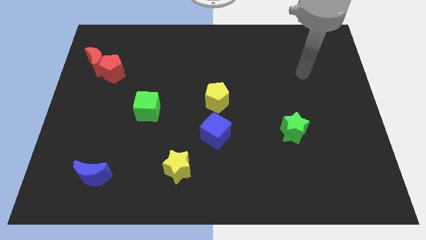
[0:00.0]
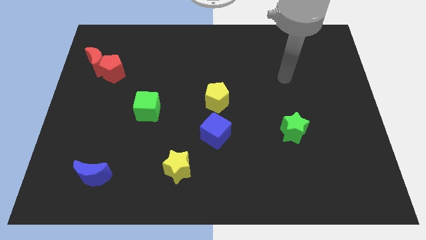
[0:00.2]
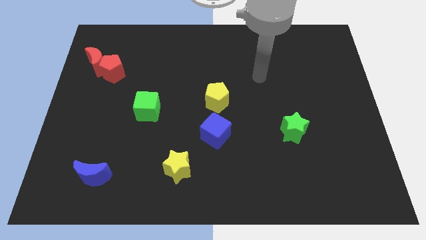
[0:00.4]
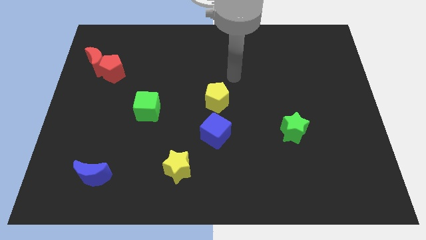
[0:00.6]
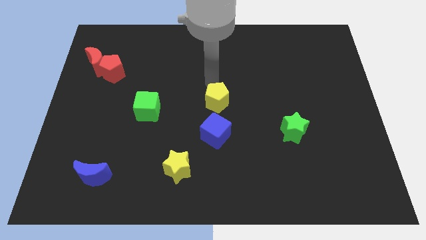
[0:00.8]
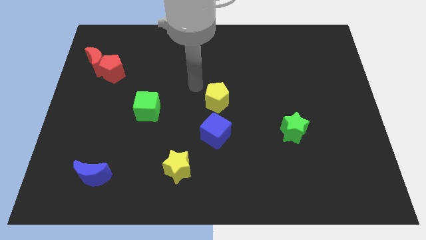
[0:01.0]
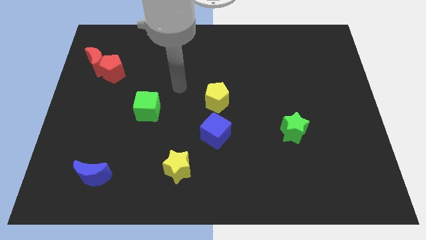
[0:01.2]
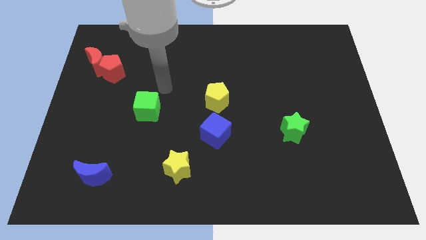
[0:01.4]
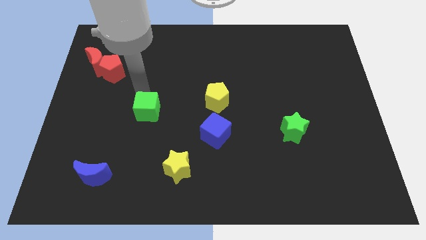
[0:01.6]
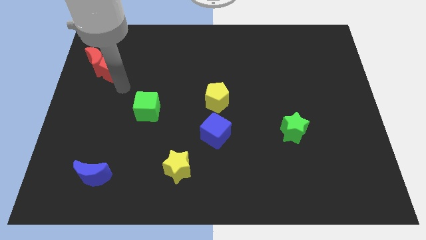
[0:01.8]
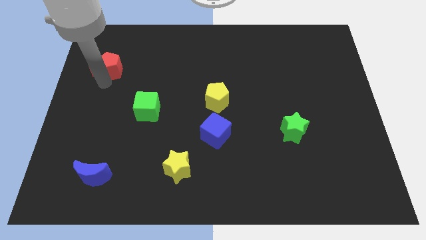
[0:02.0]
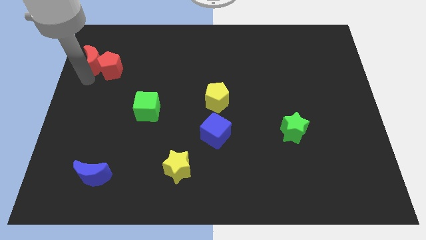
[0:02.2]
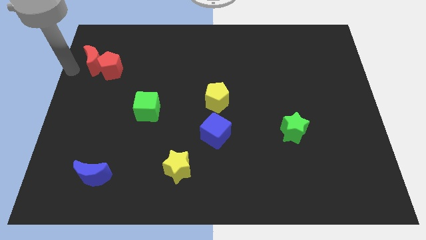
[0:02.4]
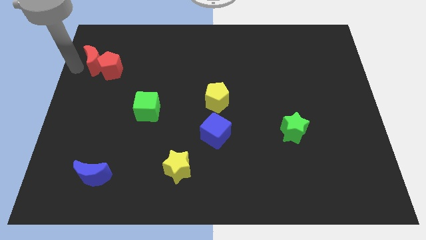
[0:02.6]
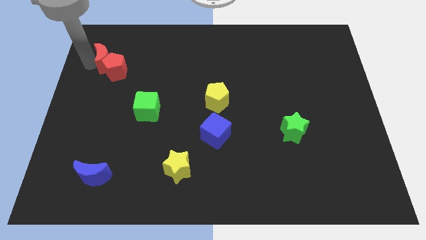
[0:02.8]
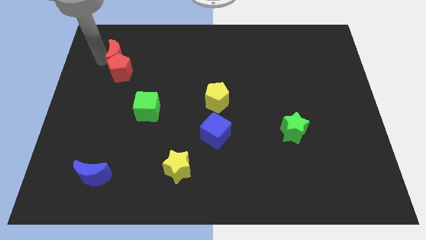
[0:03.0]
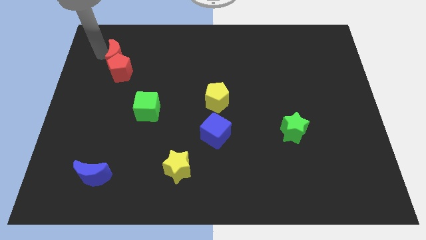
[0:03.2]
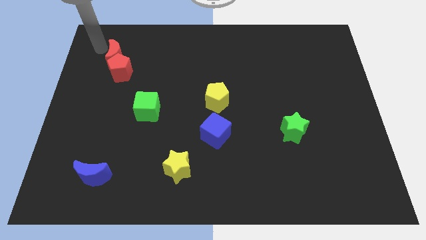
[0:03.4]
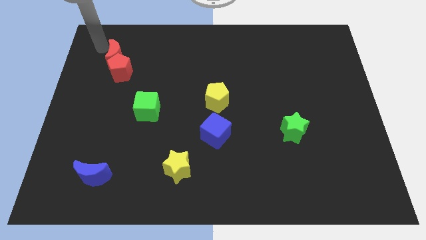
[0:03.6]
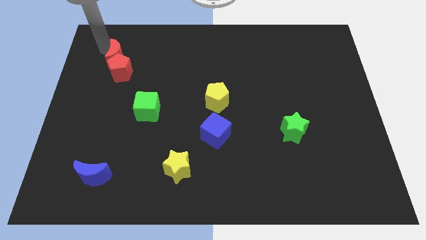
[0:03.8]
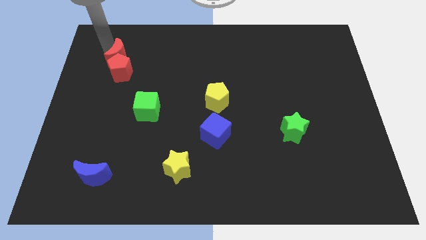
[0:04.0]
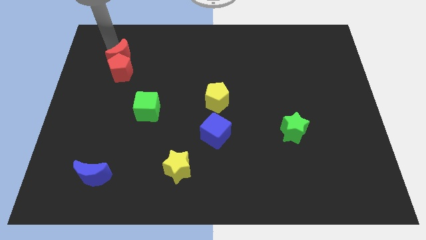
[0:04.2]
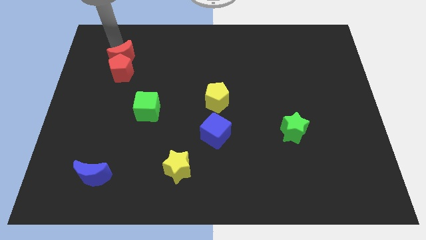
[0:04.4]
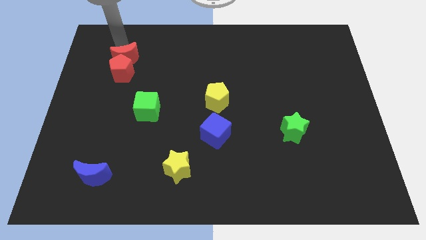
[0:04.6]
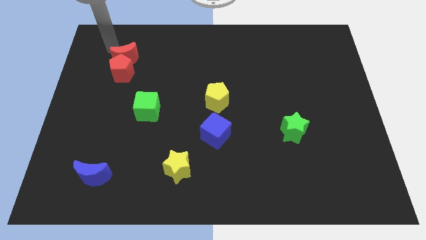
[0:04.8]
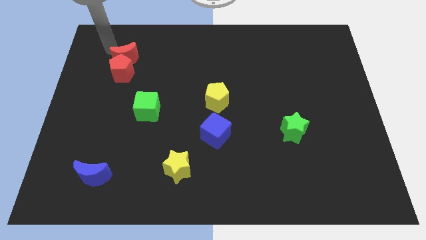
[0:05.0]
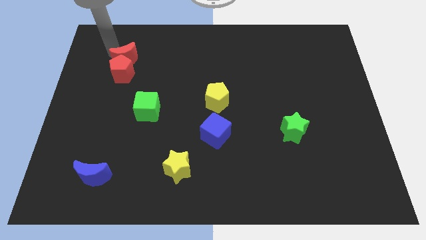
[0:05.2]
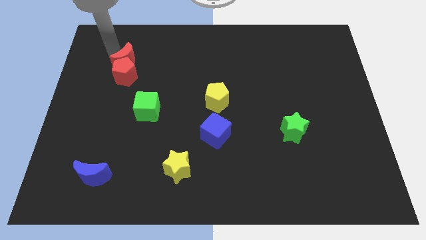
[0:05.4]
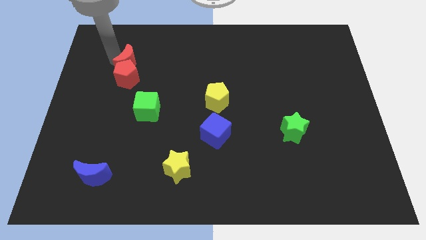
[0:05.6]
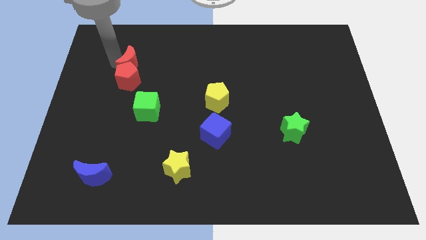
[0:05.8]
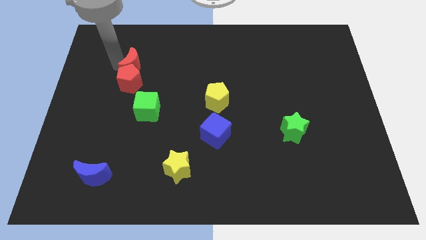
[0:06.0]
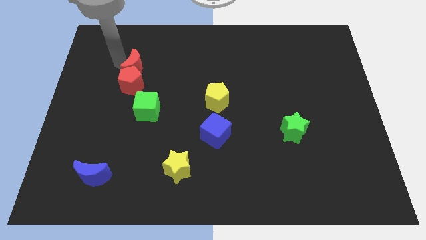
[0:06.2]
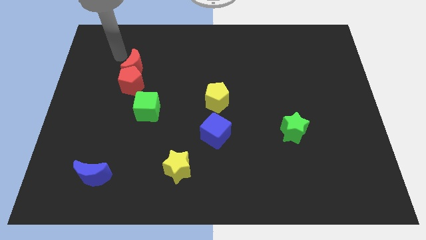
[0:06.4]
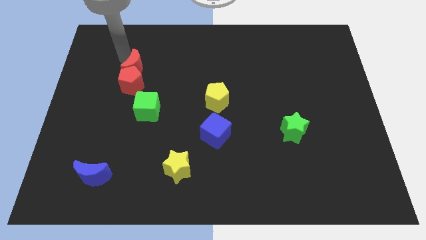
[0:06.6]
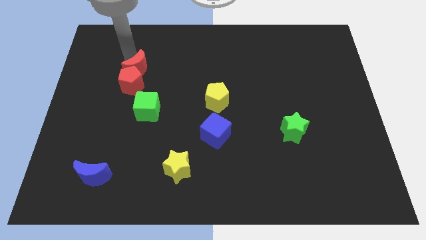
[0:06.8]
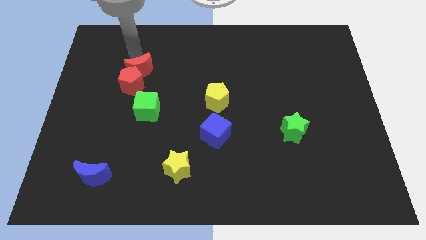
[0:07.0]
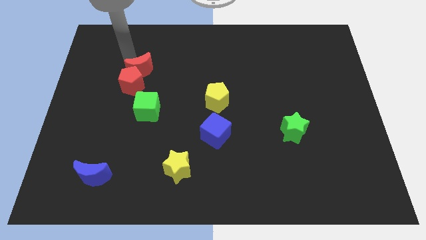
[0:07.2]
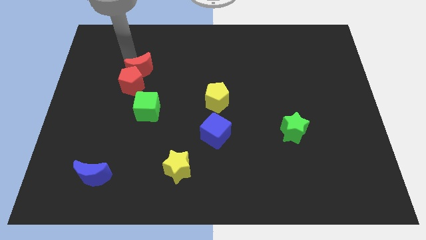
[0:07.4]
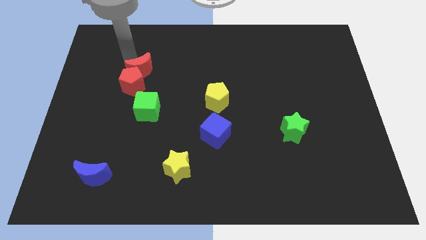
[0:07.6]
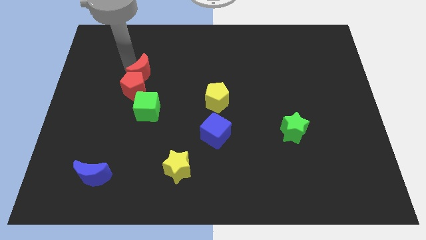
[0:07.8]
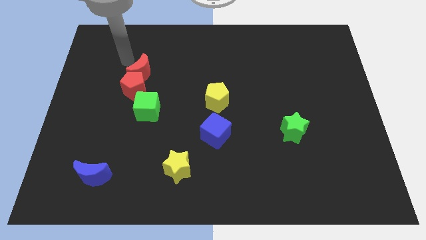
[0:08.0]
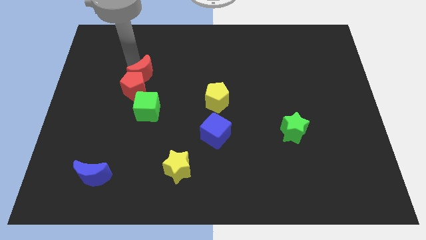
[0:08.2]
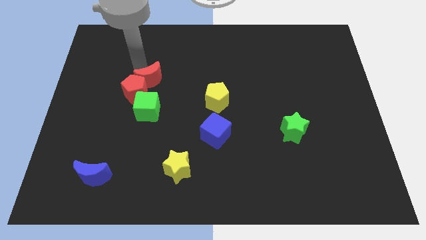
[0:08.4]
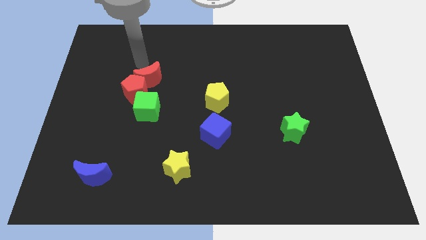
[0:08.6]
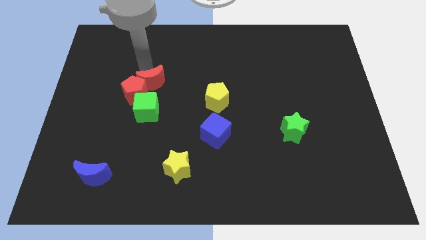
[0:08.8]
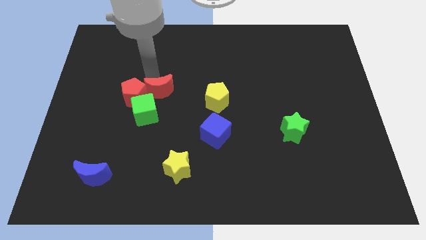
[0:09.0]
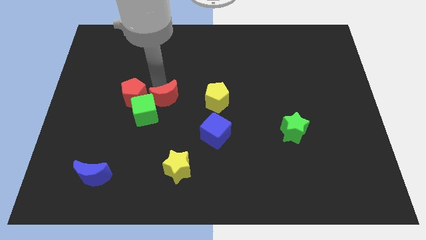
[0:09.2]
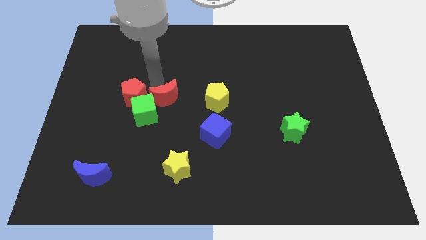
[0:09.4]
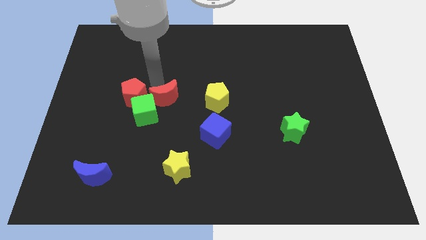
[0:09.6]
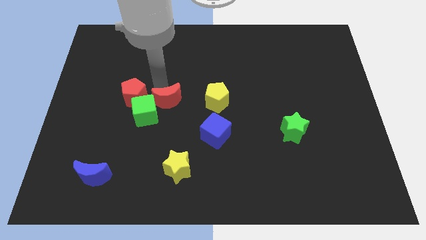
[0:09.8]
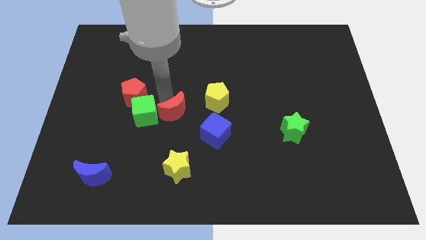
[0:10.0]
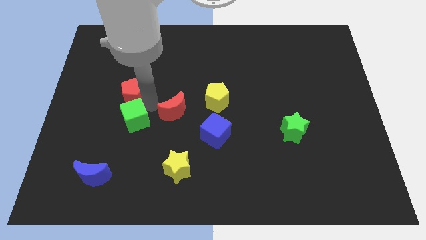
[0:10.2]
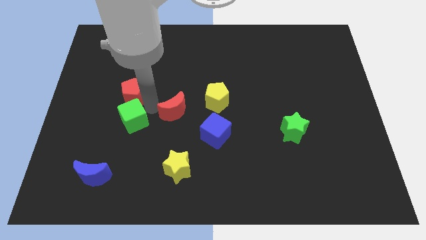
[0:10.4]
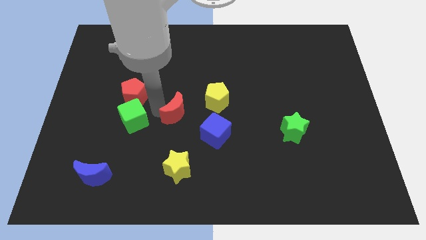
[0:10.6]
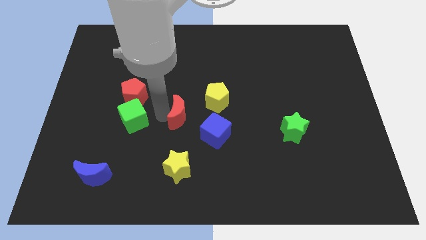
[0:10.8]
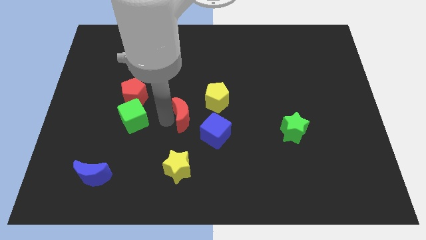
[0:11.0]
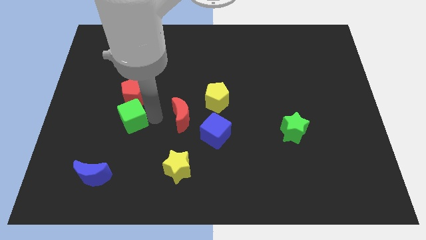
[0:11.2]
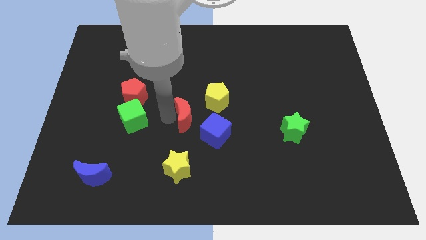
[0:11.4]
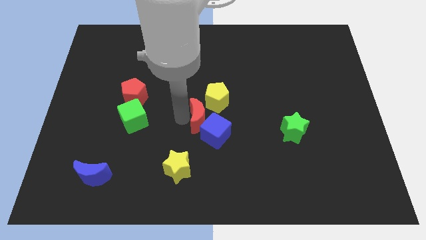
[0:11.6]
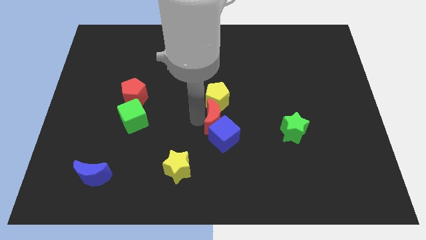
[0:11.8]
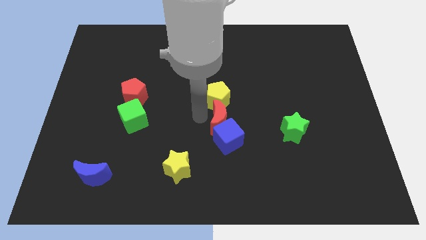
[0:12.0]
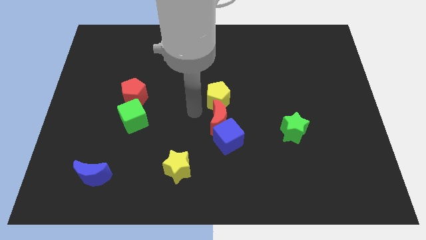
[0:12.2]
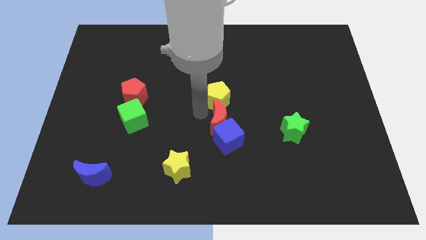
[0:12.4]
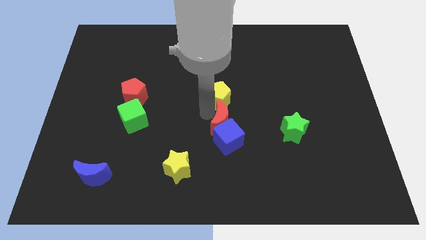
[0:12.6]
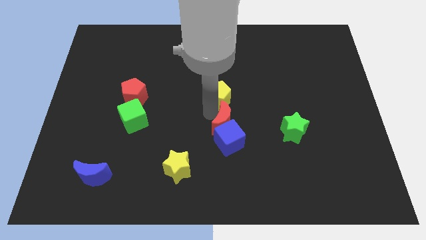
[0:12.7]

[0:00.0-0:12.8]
slide the red moon to the left side of the green star

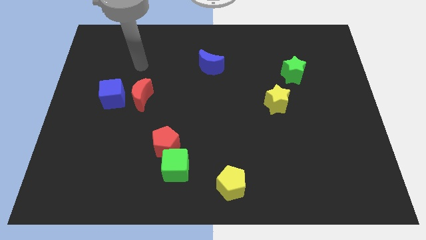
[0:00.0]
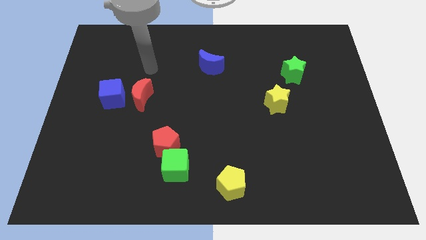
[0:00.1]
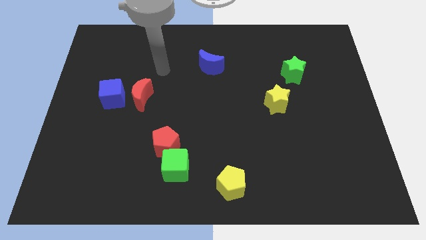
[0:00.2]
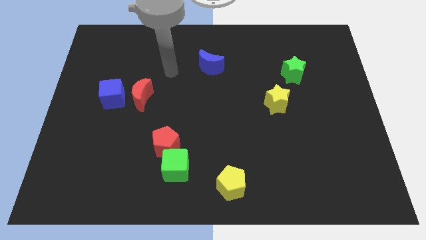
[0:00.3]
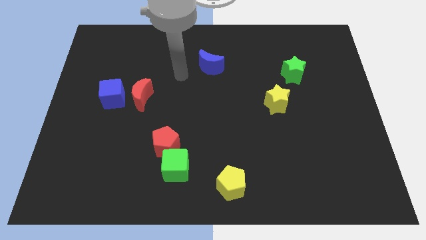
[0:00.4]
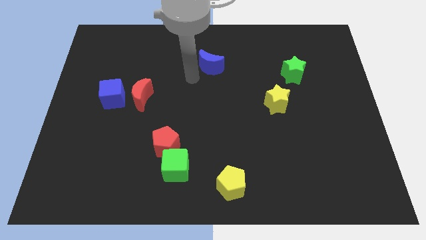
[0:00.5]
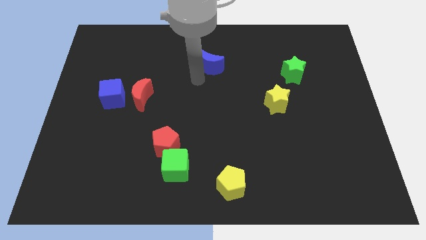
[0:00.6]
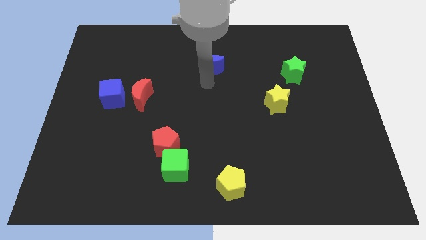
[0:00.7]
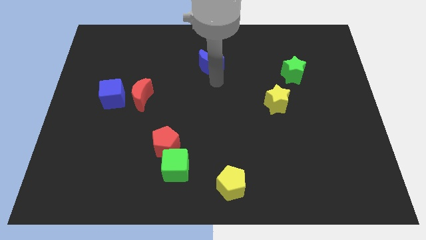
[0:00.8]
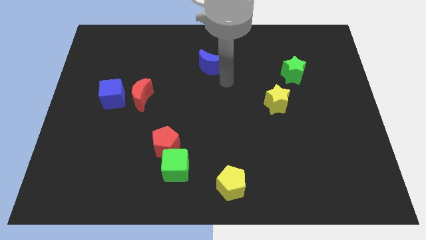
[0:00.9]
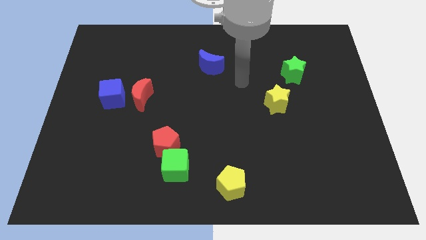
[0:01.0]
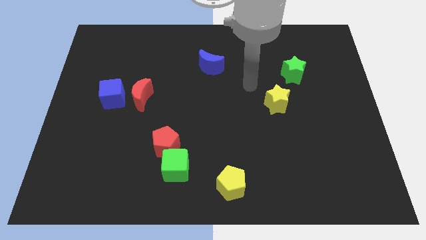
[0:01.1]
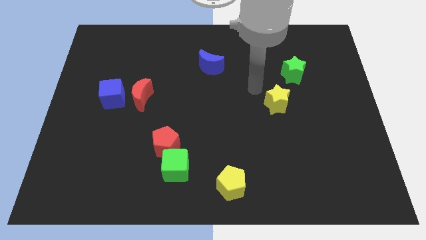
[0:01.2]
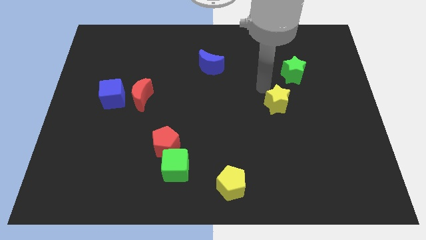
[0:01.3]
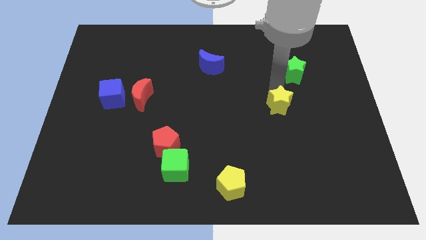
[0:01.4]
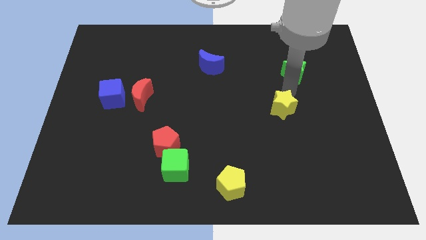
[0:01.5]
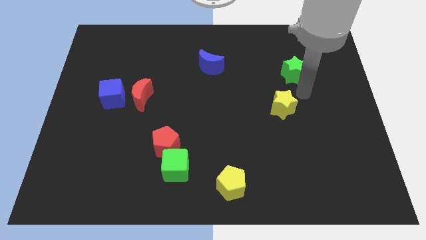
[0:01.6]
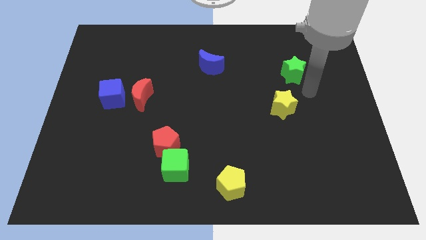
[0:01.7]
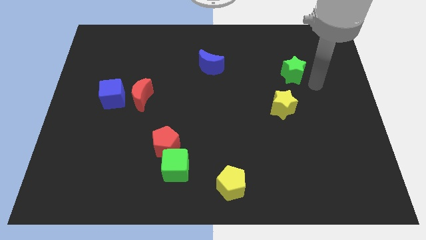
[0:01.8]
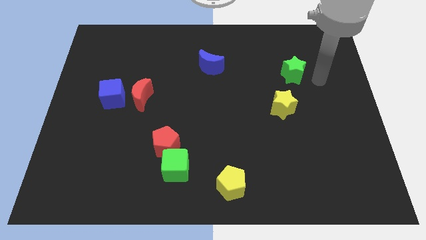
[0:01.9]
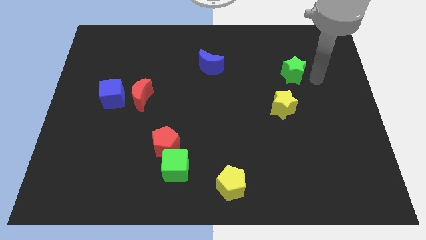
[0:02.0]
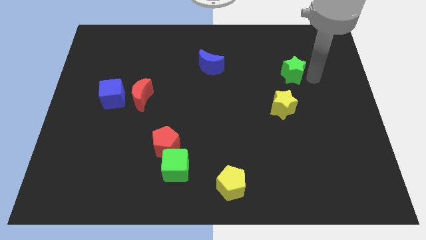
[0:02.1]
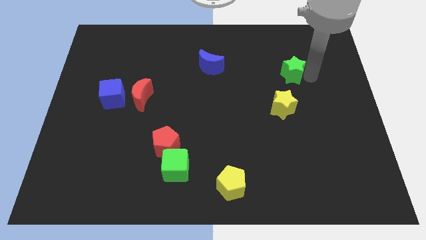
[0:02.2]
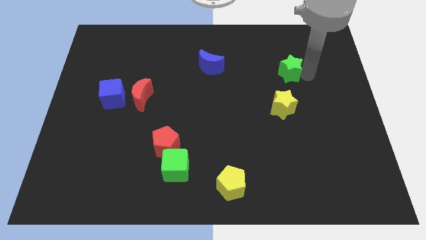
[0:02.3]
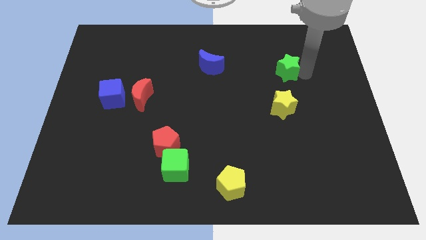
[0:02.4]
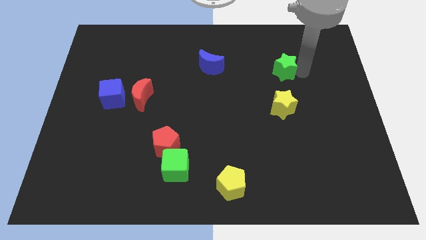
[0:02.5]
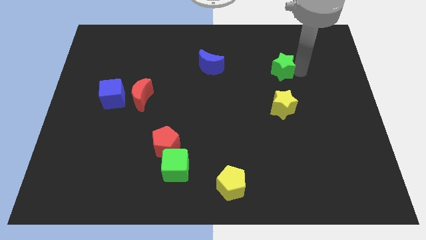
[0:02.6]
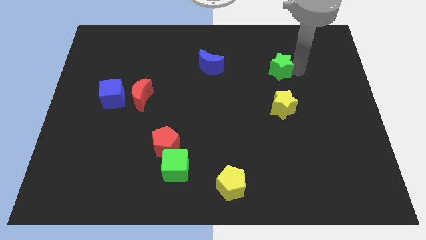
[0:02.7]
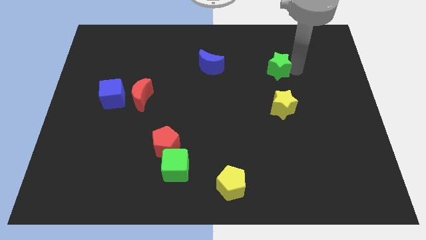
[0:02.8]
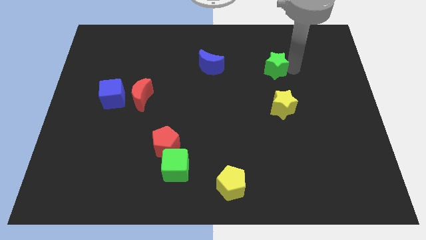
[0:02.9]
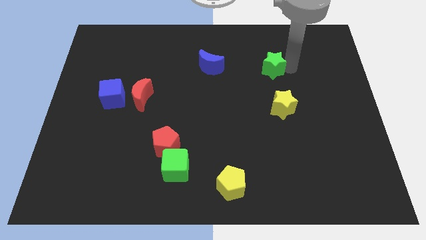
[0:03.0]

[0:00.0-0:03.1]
push the green star to the right of the blue moon
